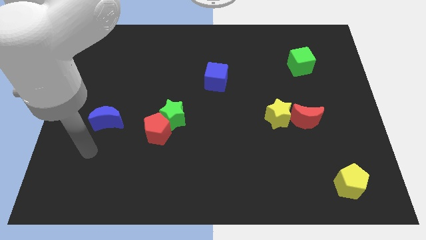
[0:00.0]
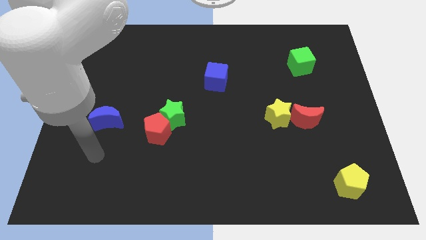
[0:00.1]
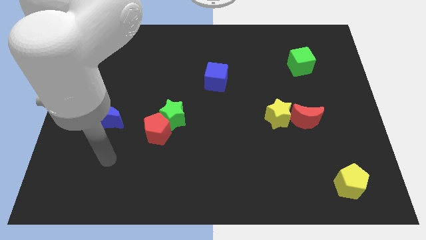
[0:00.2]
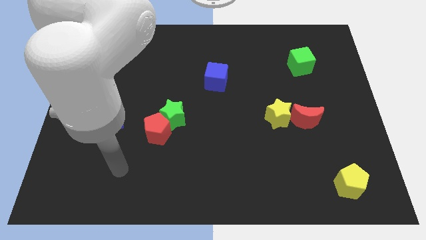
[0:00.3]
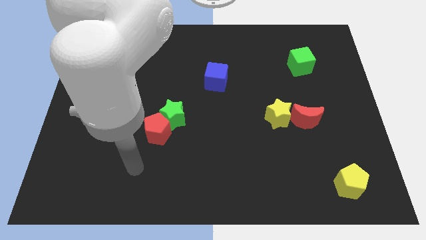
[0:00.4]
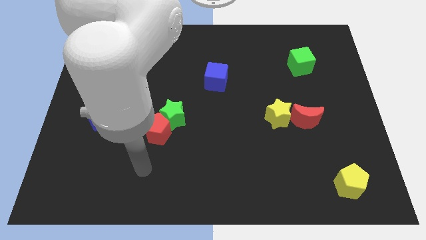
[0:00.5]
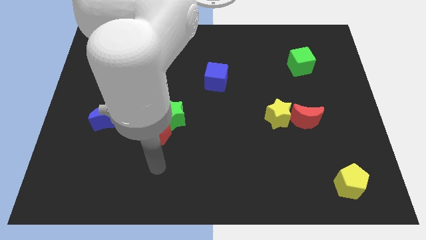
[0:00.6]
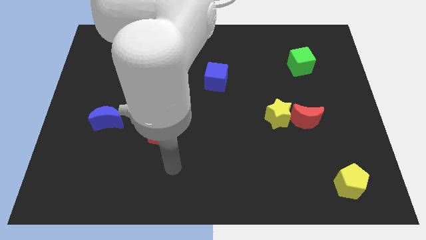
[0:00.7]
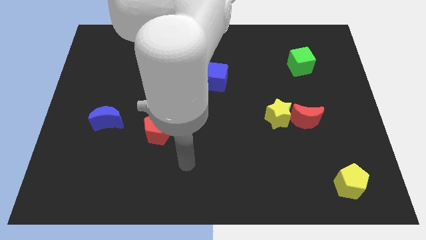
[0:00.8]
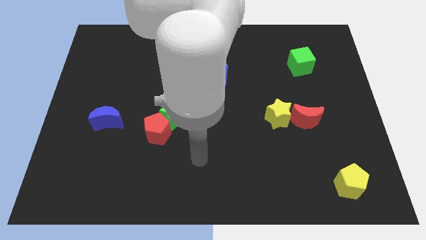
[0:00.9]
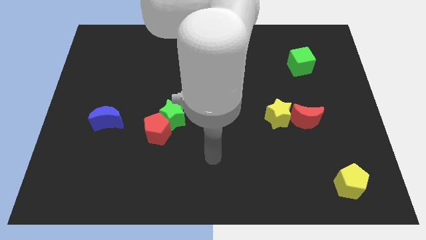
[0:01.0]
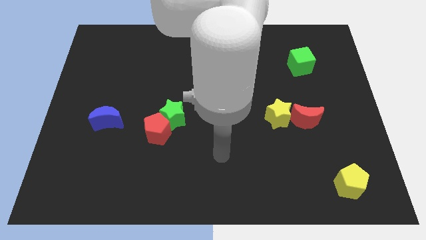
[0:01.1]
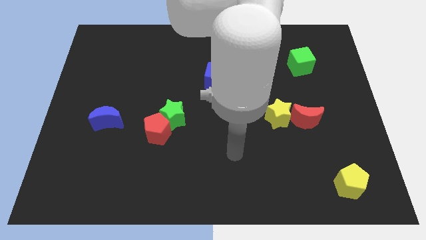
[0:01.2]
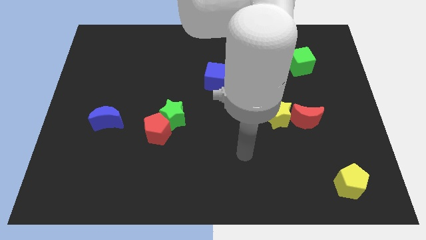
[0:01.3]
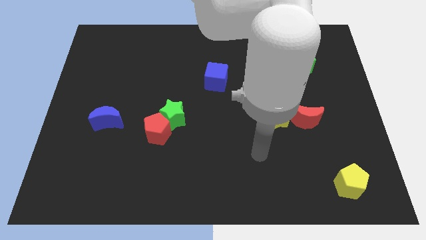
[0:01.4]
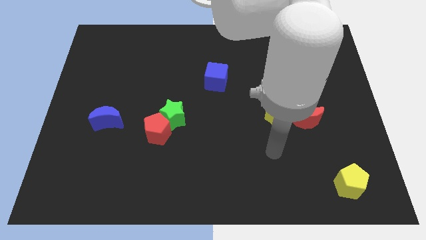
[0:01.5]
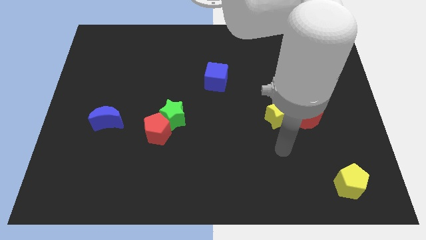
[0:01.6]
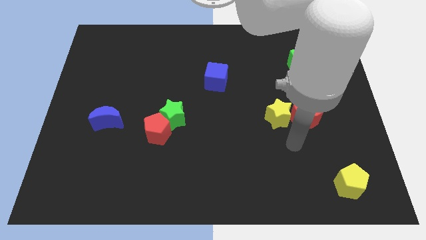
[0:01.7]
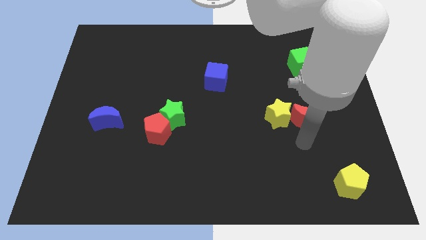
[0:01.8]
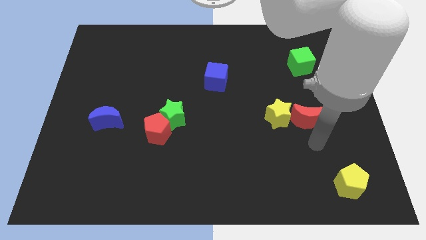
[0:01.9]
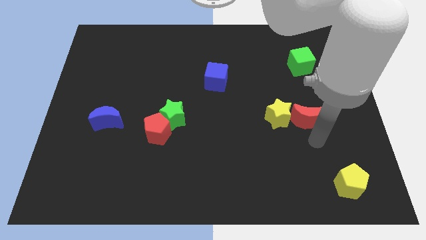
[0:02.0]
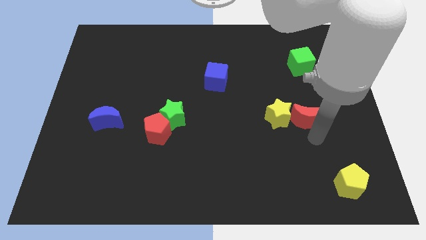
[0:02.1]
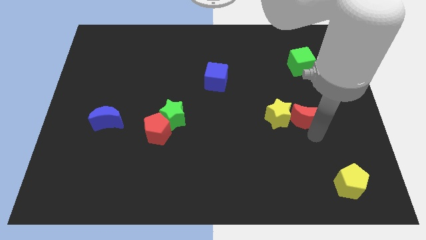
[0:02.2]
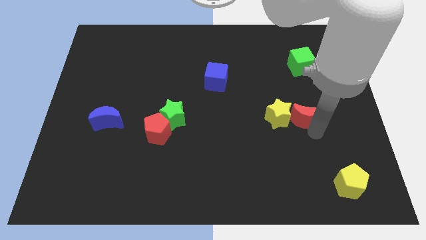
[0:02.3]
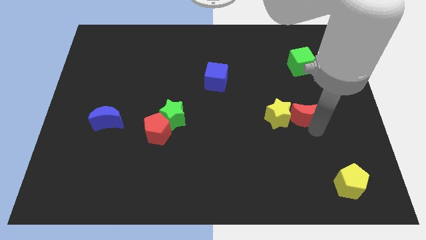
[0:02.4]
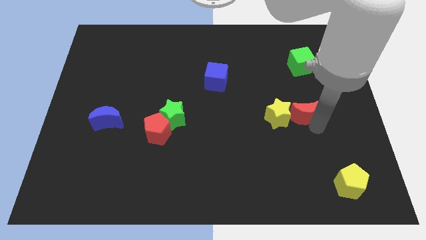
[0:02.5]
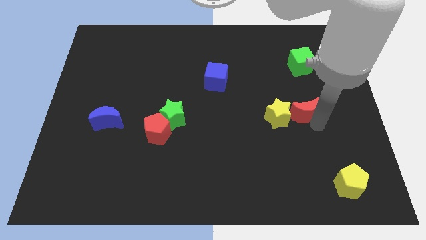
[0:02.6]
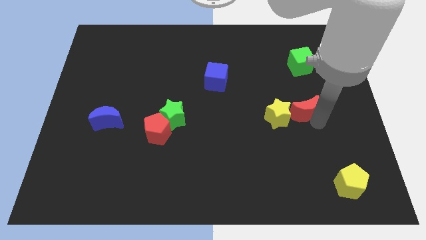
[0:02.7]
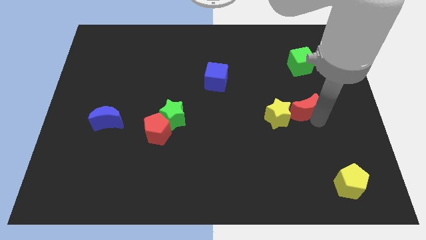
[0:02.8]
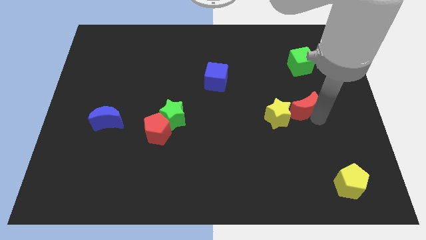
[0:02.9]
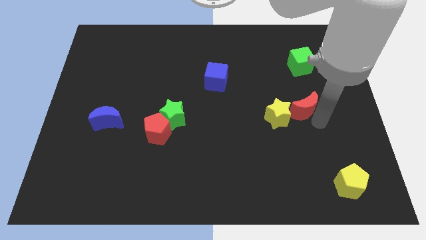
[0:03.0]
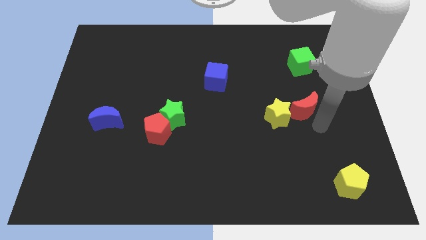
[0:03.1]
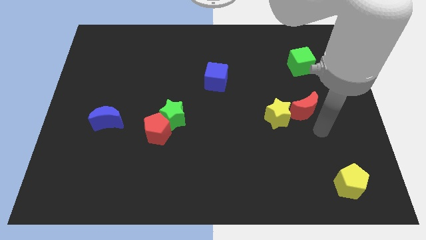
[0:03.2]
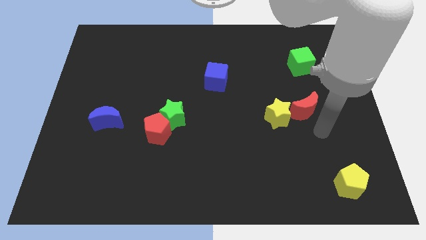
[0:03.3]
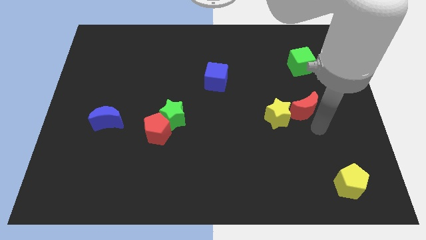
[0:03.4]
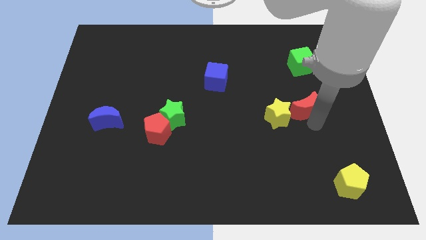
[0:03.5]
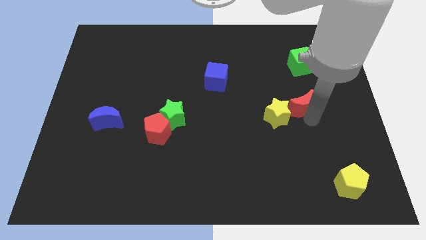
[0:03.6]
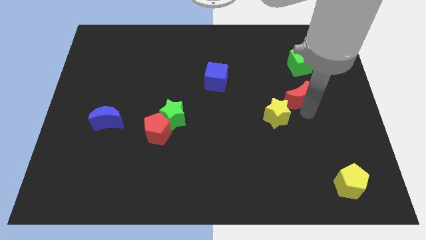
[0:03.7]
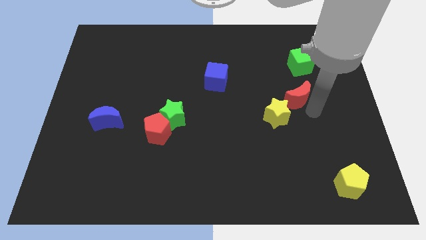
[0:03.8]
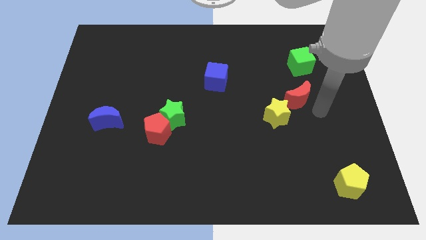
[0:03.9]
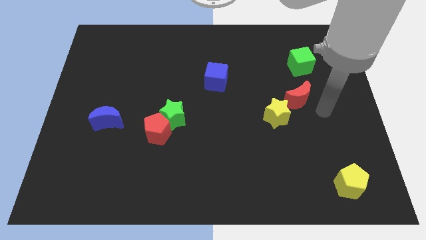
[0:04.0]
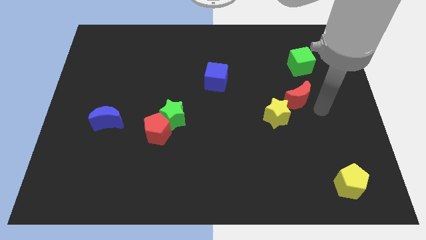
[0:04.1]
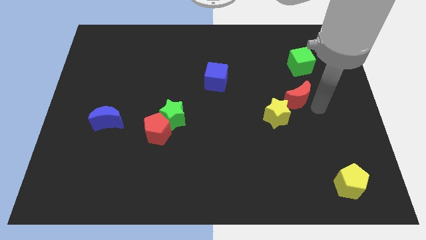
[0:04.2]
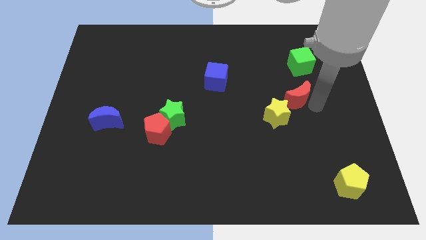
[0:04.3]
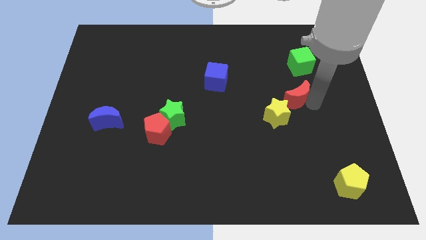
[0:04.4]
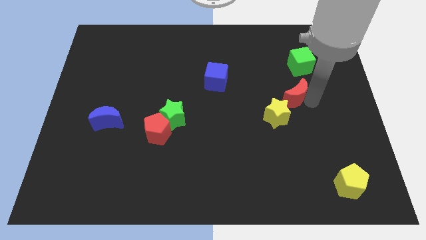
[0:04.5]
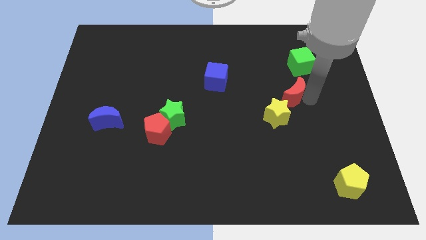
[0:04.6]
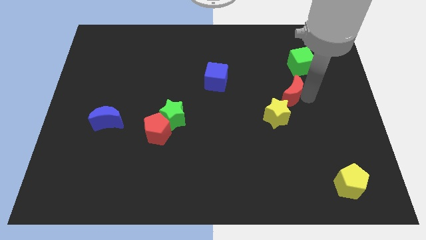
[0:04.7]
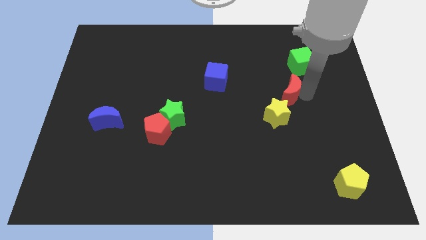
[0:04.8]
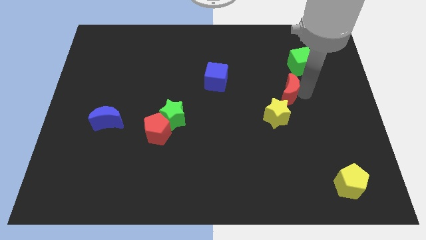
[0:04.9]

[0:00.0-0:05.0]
move the red moon up and then left a little bit

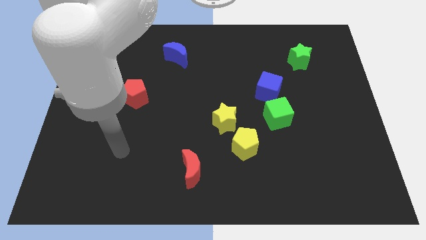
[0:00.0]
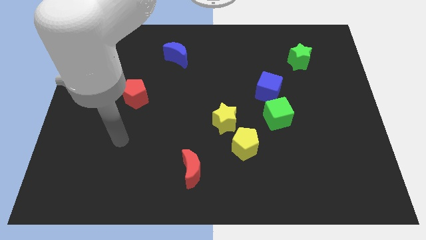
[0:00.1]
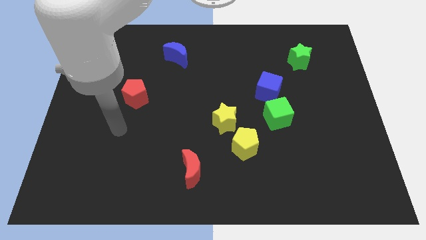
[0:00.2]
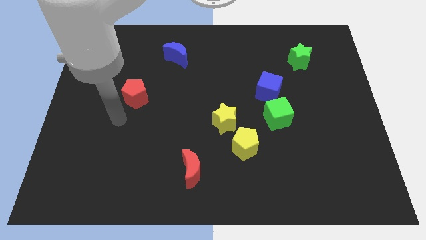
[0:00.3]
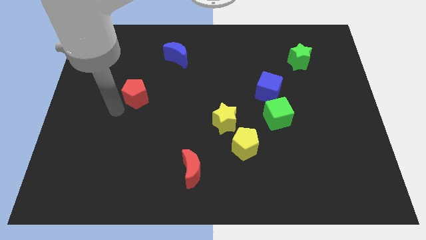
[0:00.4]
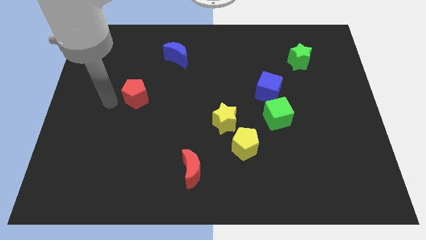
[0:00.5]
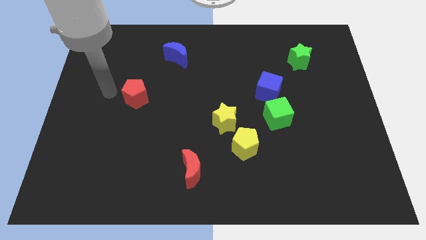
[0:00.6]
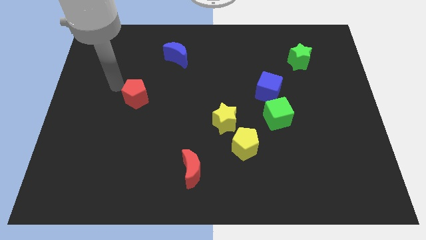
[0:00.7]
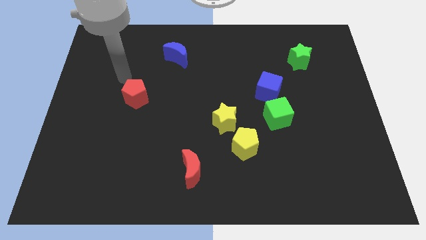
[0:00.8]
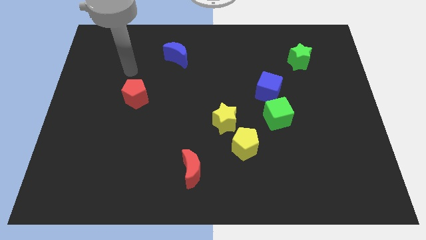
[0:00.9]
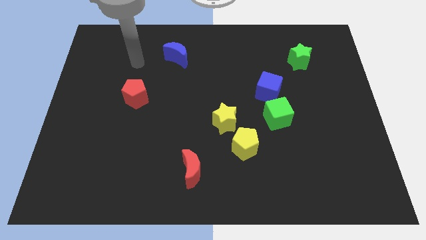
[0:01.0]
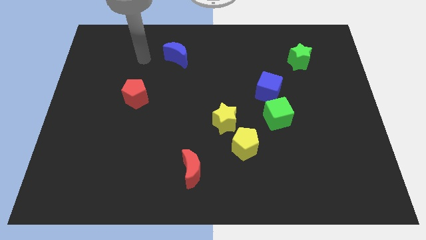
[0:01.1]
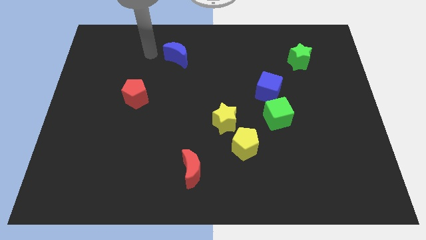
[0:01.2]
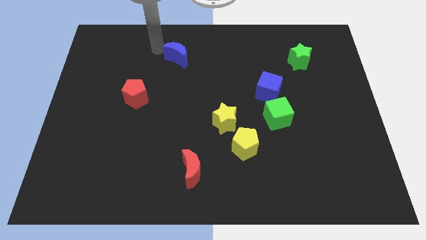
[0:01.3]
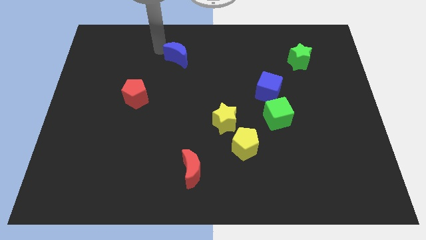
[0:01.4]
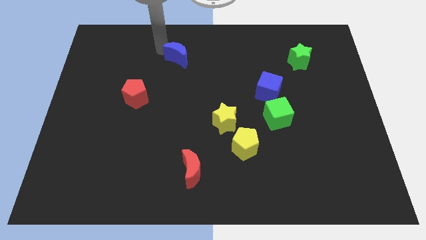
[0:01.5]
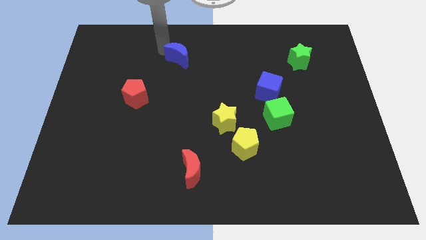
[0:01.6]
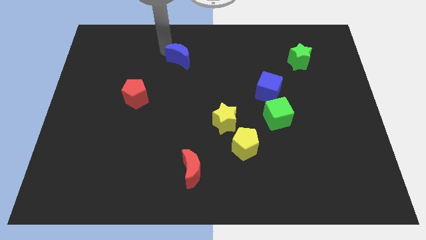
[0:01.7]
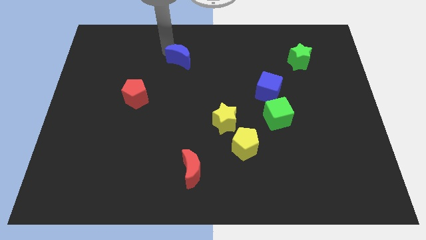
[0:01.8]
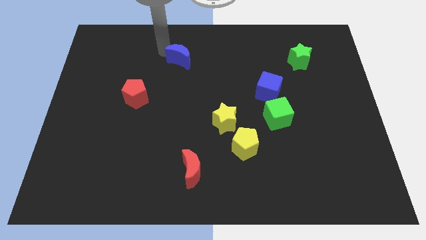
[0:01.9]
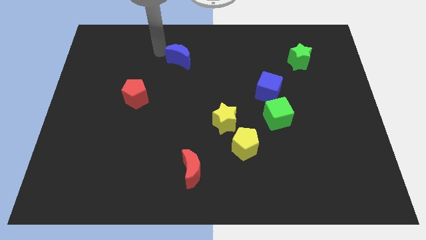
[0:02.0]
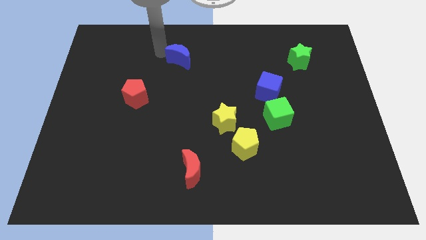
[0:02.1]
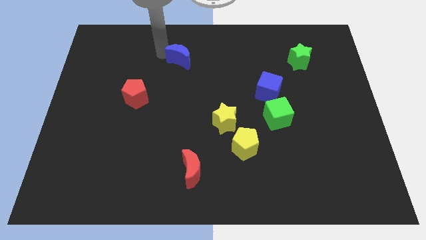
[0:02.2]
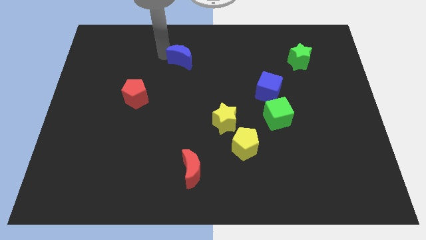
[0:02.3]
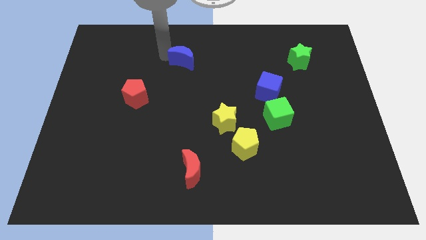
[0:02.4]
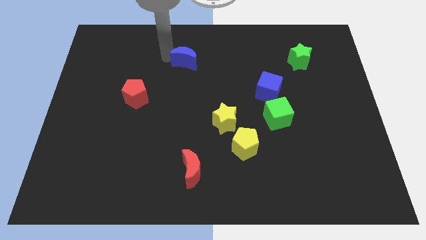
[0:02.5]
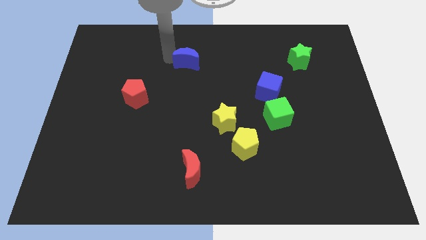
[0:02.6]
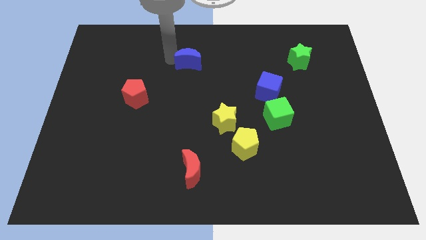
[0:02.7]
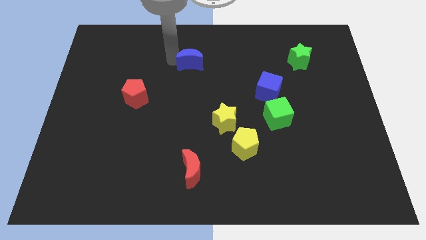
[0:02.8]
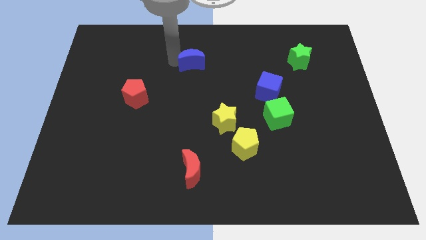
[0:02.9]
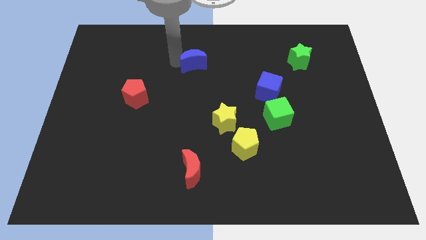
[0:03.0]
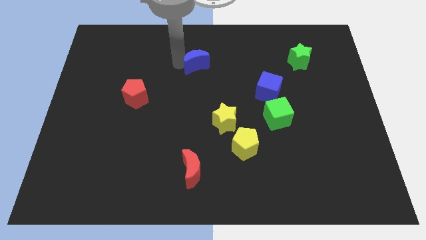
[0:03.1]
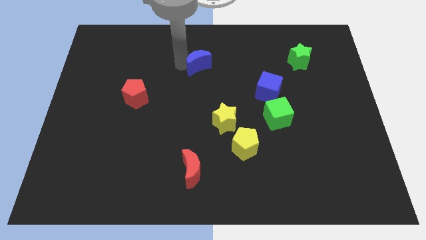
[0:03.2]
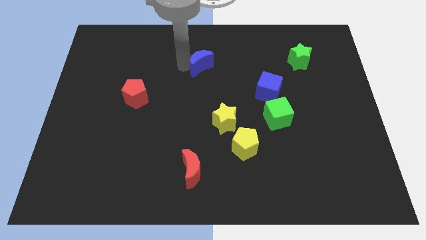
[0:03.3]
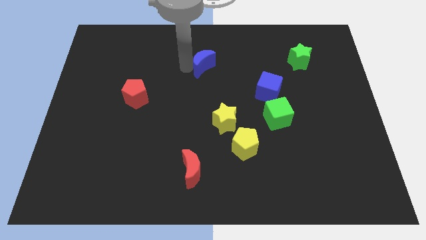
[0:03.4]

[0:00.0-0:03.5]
move the blue moon a little down and to the right diagonally
